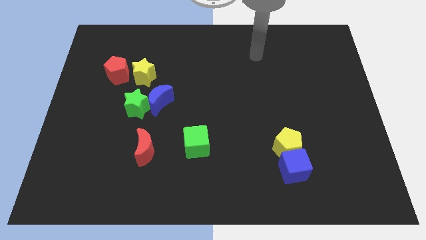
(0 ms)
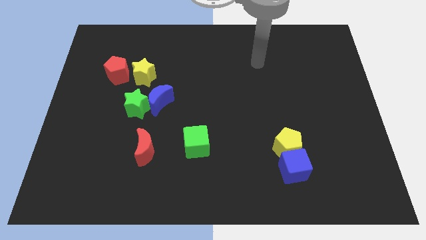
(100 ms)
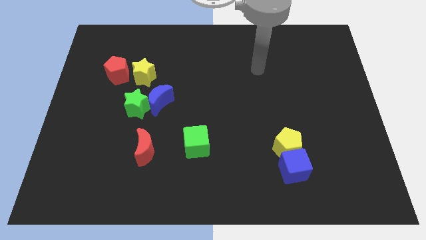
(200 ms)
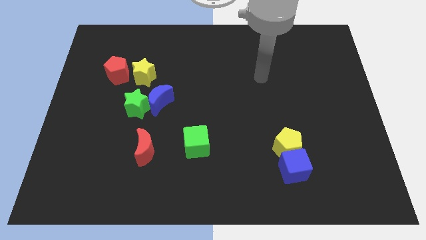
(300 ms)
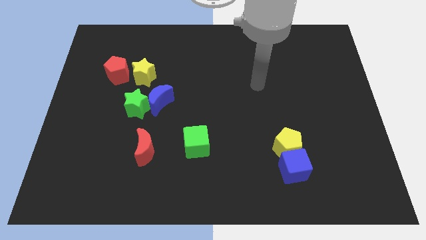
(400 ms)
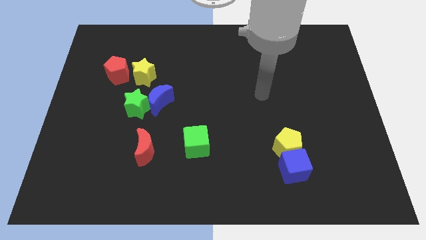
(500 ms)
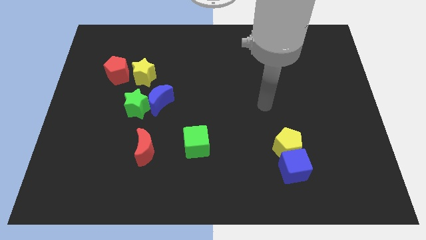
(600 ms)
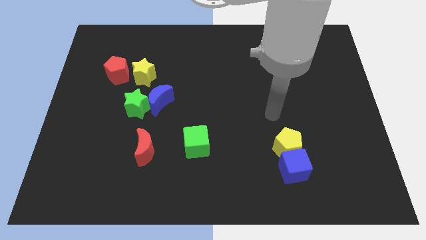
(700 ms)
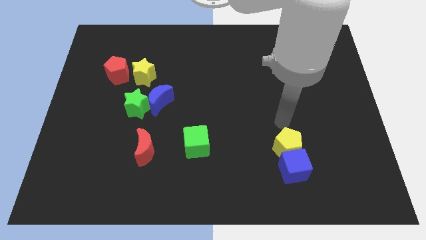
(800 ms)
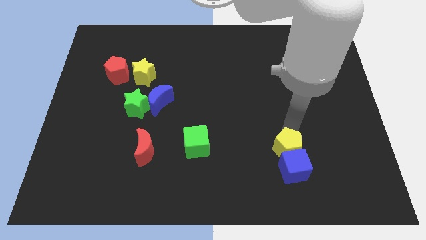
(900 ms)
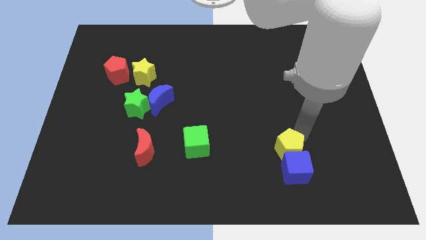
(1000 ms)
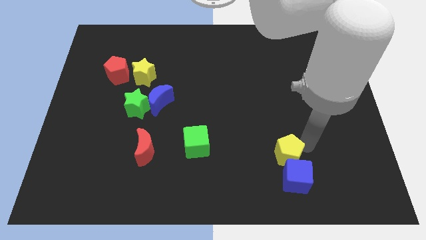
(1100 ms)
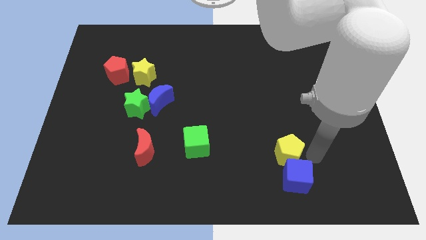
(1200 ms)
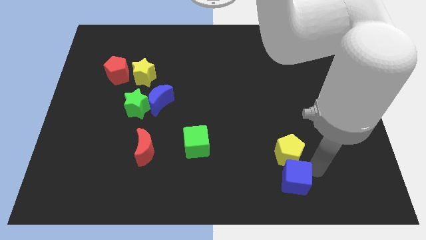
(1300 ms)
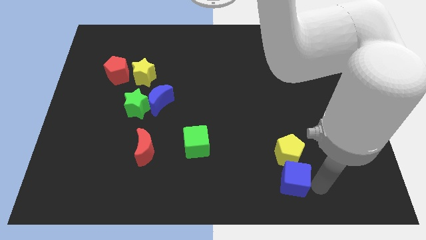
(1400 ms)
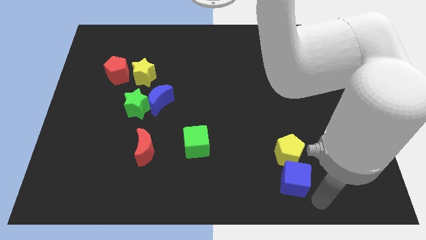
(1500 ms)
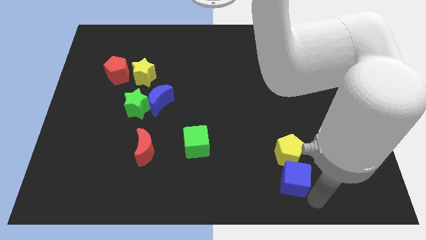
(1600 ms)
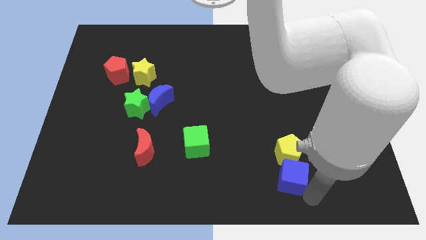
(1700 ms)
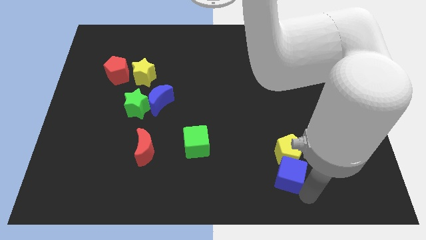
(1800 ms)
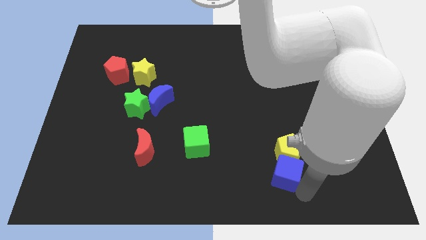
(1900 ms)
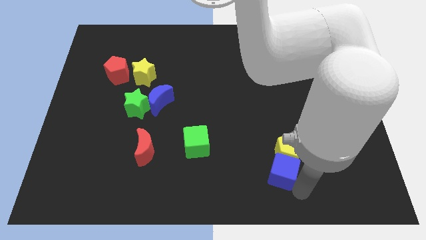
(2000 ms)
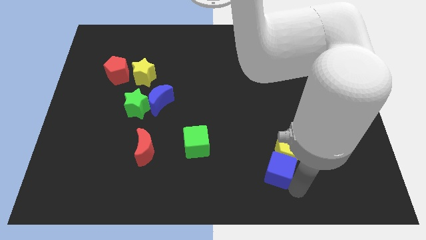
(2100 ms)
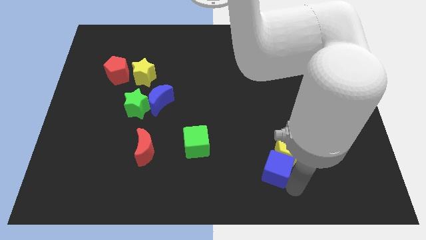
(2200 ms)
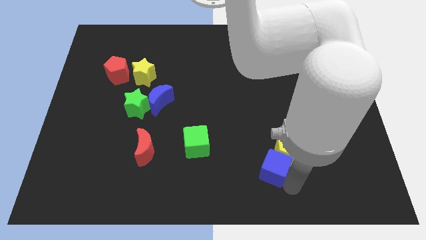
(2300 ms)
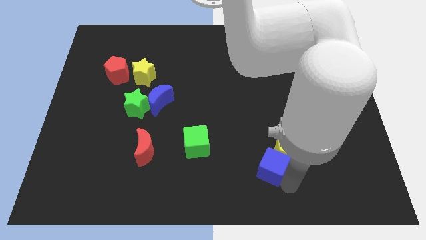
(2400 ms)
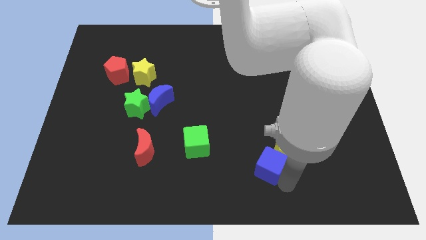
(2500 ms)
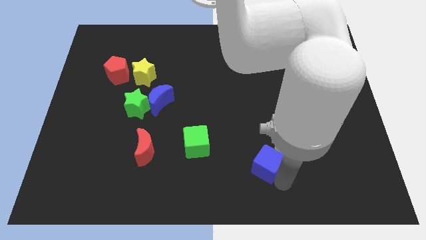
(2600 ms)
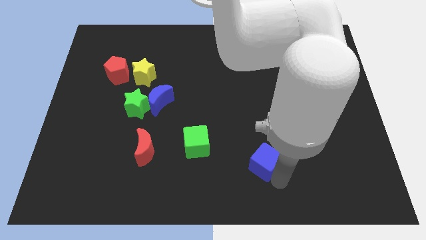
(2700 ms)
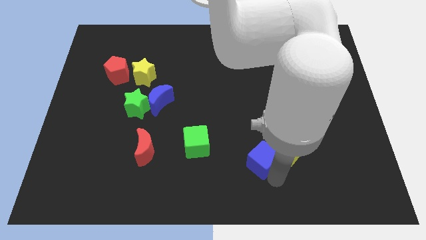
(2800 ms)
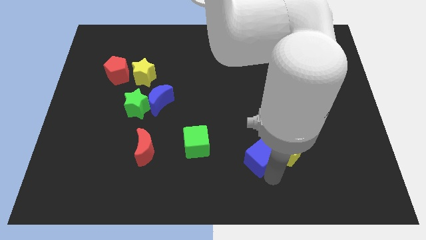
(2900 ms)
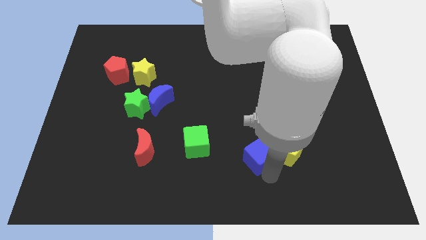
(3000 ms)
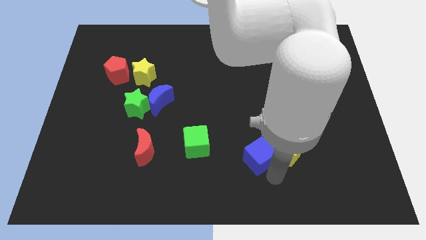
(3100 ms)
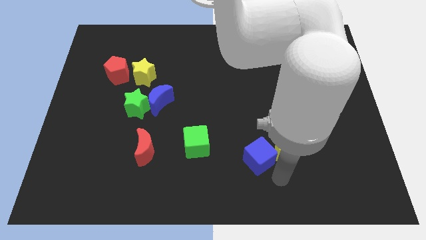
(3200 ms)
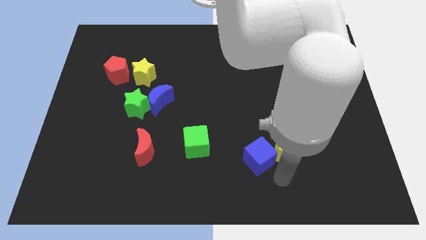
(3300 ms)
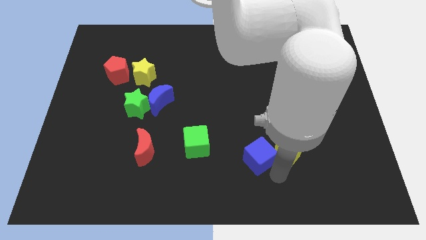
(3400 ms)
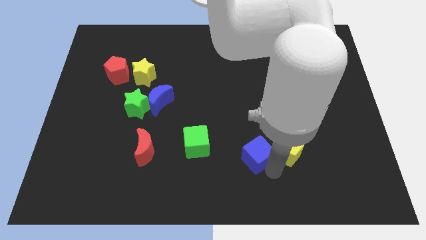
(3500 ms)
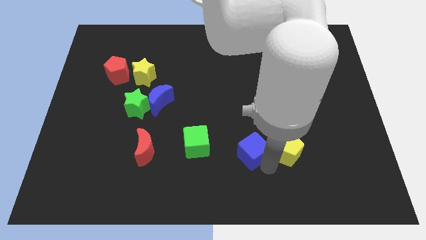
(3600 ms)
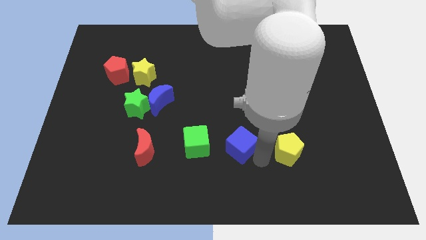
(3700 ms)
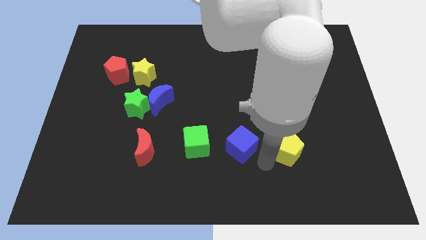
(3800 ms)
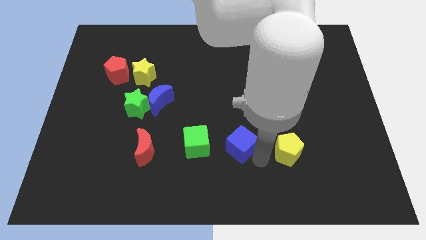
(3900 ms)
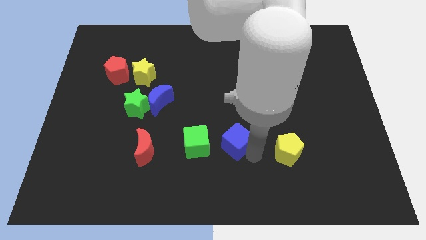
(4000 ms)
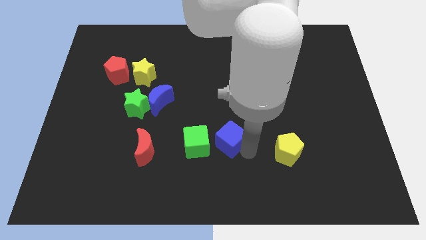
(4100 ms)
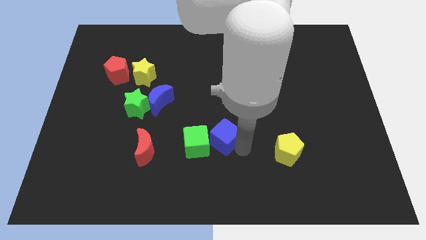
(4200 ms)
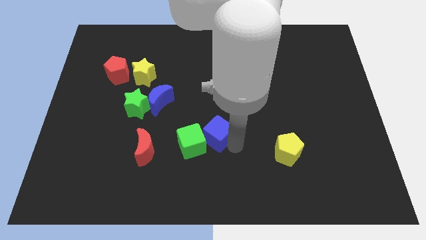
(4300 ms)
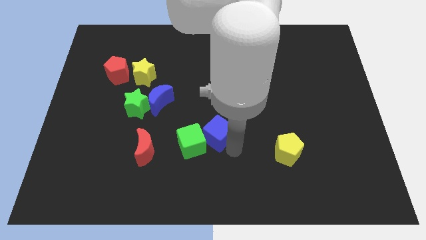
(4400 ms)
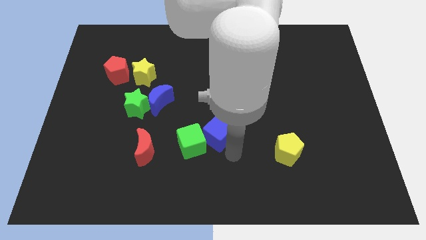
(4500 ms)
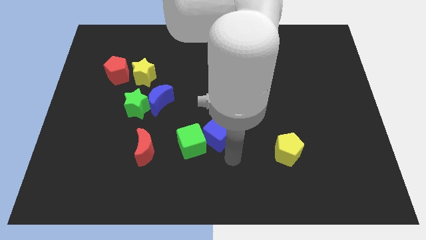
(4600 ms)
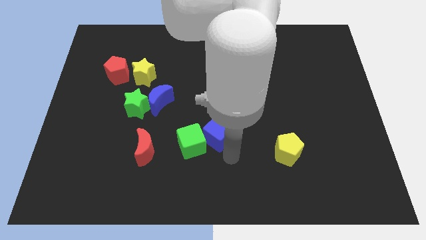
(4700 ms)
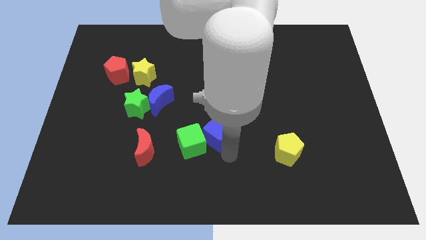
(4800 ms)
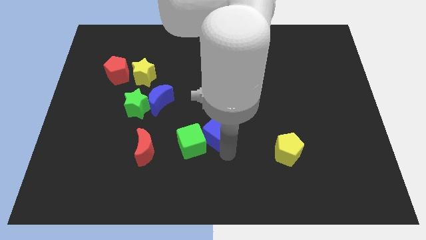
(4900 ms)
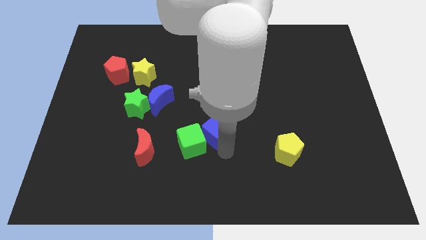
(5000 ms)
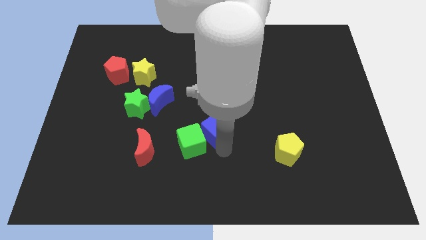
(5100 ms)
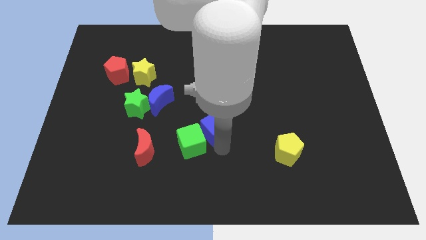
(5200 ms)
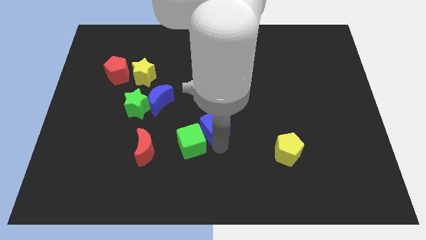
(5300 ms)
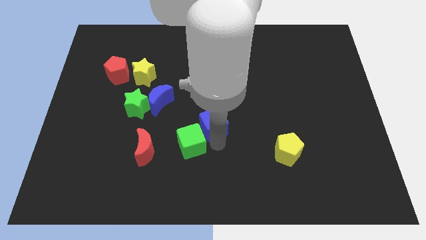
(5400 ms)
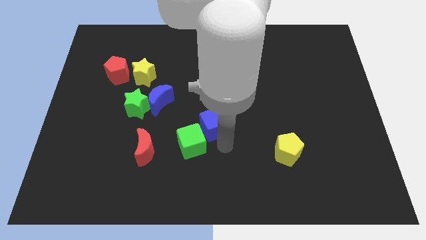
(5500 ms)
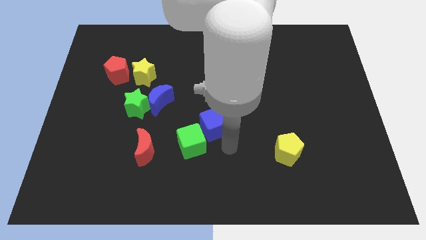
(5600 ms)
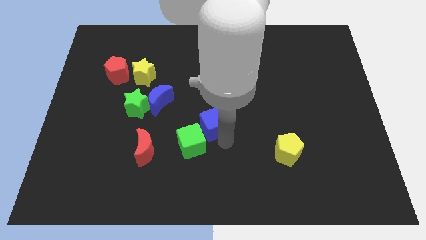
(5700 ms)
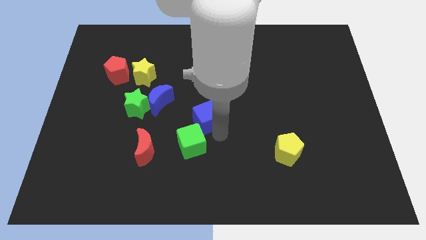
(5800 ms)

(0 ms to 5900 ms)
move the blue cube diagonally up and to the left

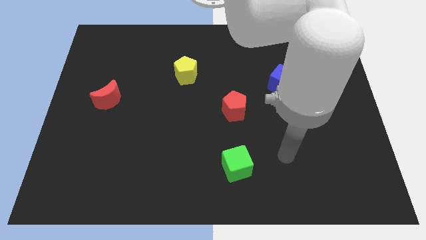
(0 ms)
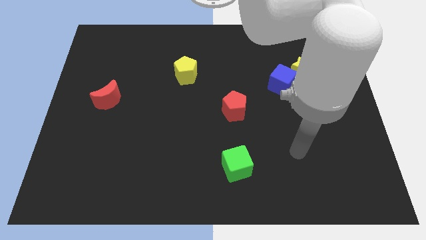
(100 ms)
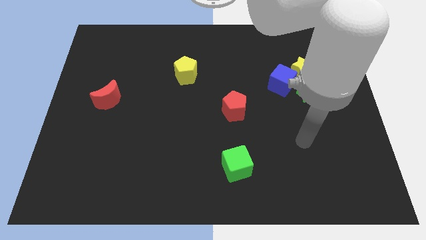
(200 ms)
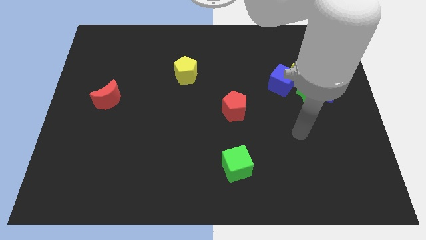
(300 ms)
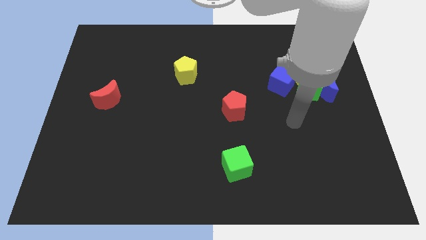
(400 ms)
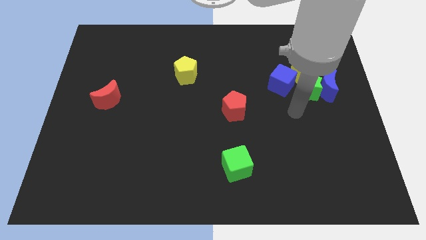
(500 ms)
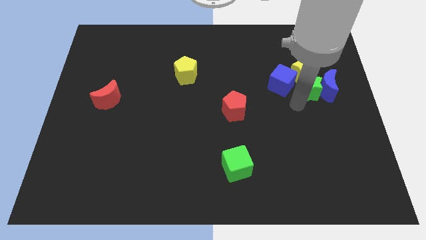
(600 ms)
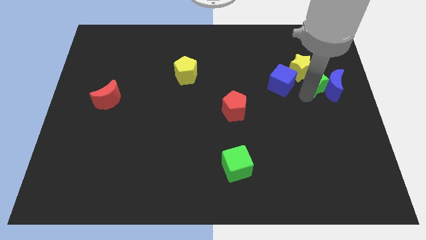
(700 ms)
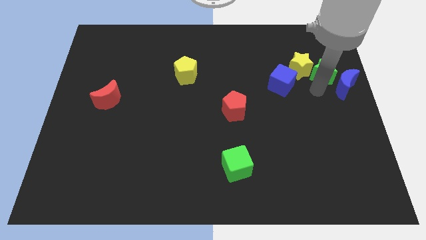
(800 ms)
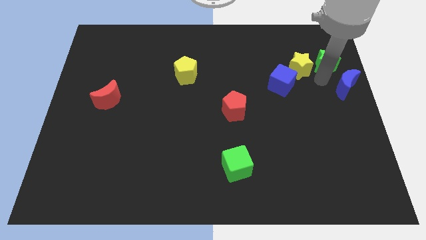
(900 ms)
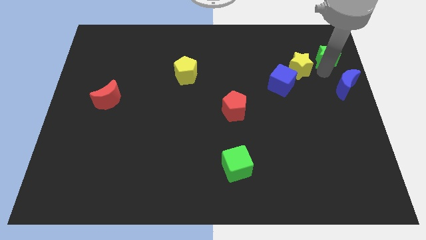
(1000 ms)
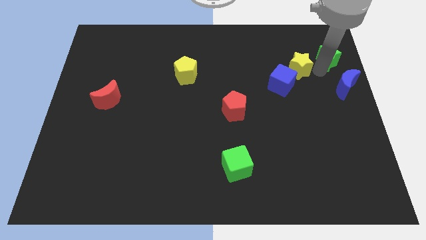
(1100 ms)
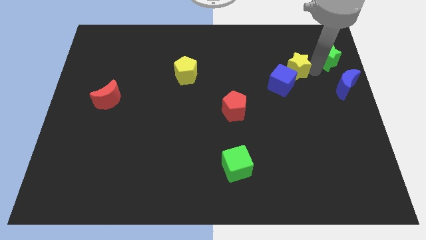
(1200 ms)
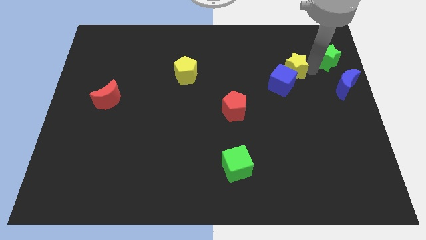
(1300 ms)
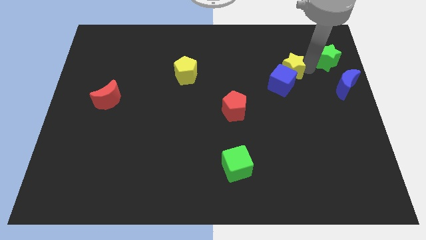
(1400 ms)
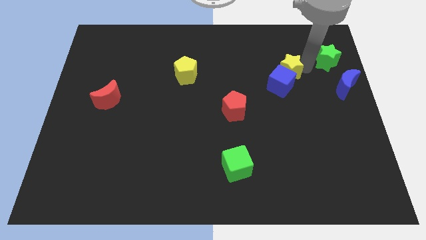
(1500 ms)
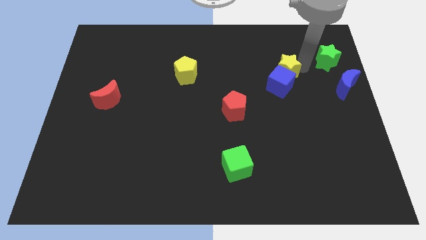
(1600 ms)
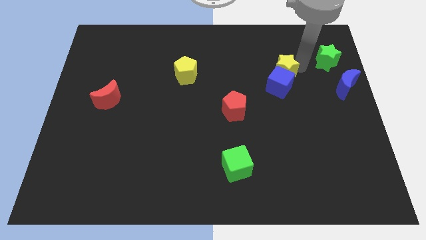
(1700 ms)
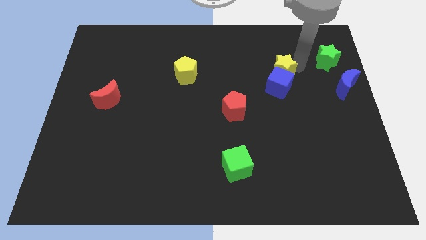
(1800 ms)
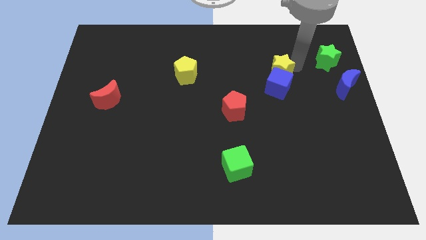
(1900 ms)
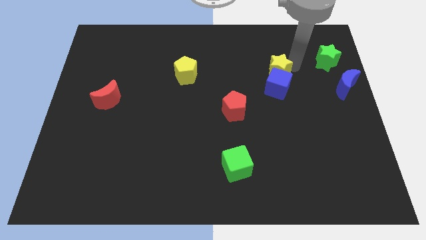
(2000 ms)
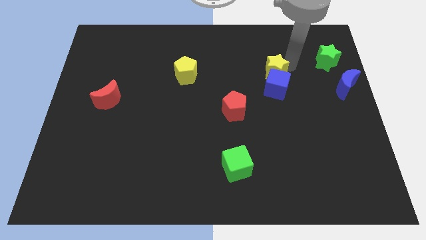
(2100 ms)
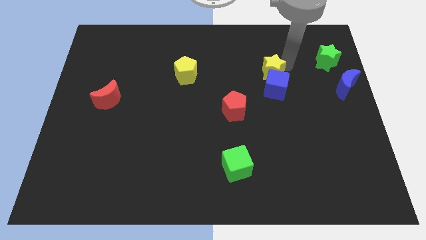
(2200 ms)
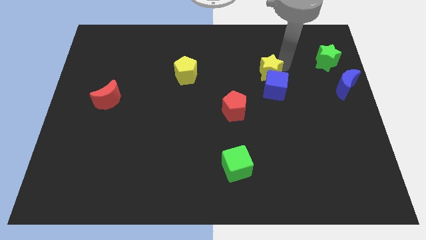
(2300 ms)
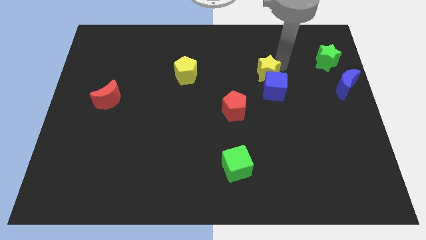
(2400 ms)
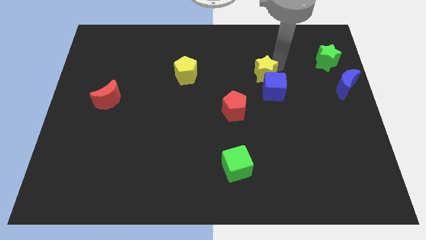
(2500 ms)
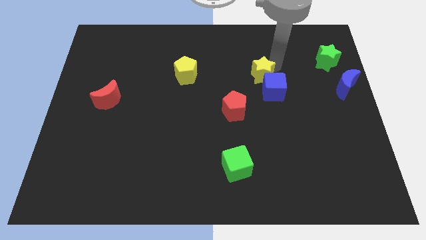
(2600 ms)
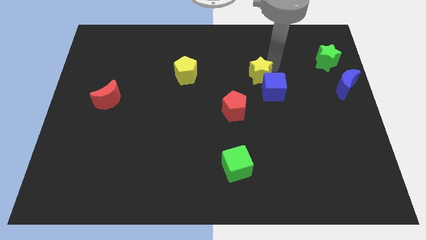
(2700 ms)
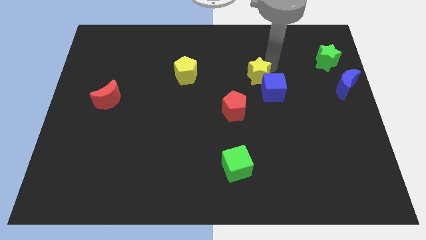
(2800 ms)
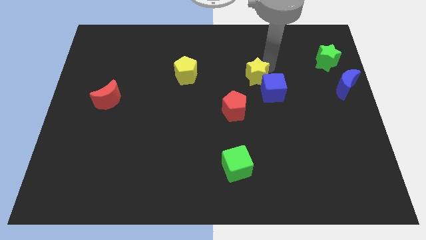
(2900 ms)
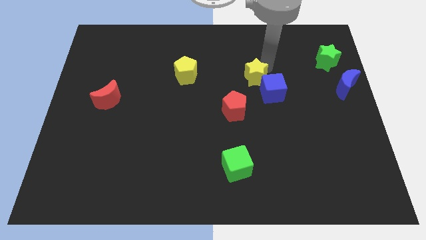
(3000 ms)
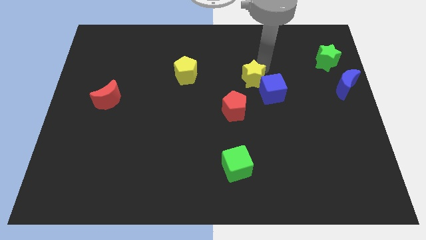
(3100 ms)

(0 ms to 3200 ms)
push the yellow star diagonally downwards and left a little
